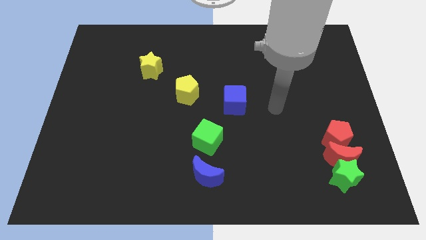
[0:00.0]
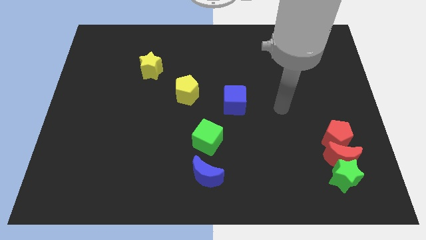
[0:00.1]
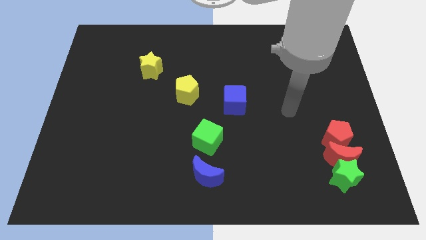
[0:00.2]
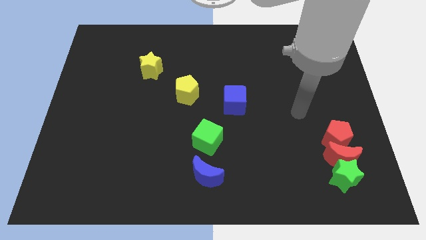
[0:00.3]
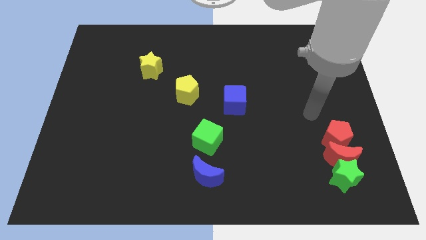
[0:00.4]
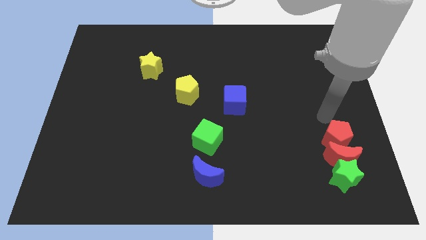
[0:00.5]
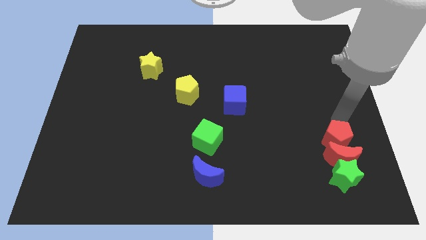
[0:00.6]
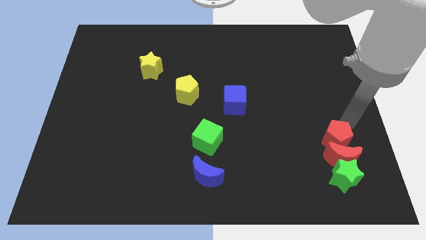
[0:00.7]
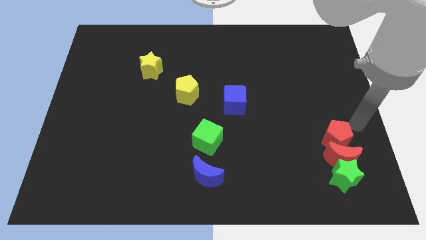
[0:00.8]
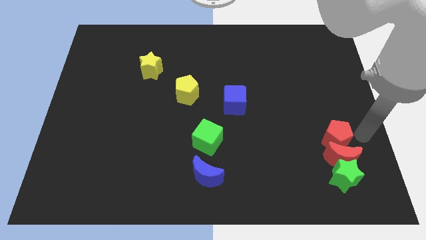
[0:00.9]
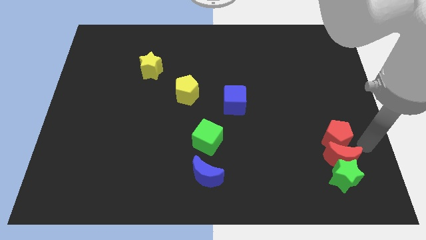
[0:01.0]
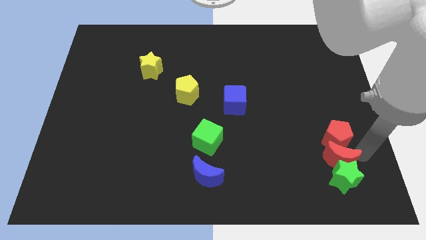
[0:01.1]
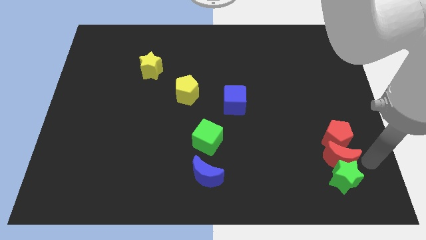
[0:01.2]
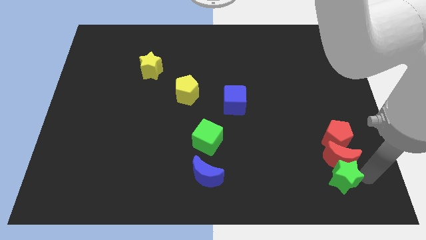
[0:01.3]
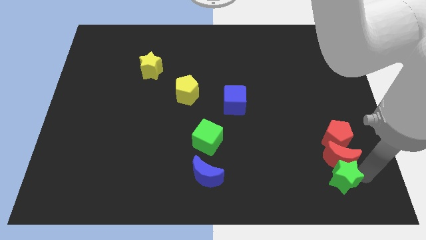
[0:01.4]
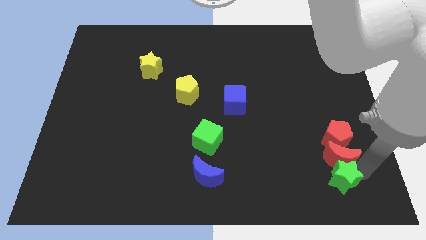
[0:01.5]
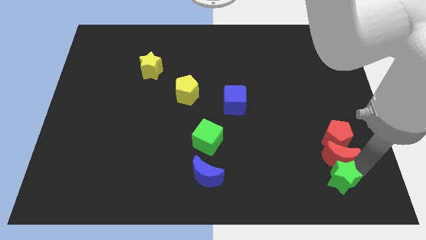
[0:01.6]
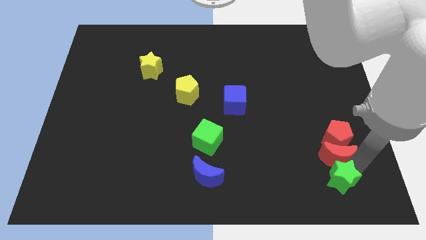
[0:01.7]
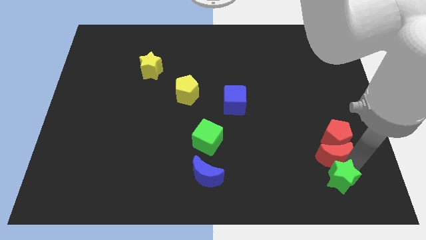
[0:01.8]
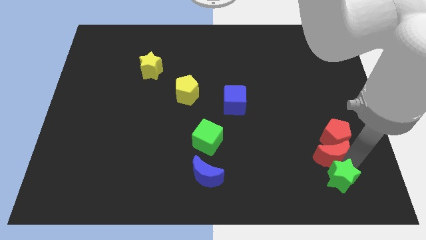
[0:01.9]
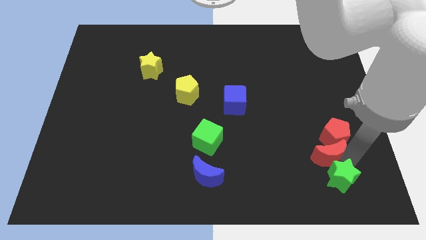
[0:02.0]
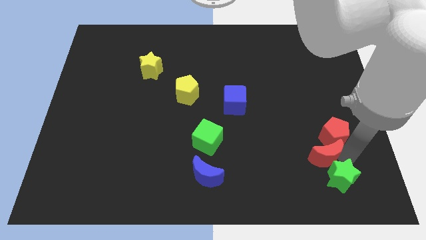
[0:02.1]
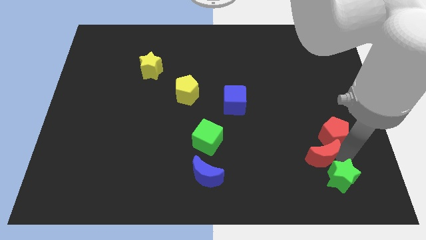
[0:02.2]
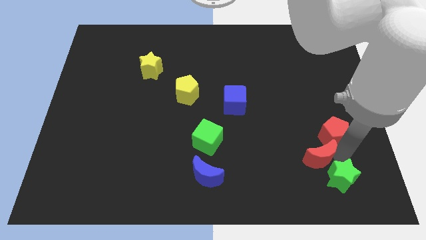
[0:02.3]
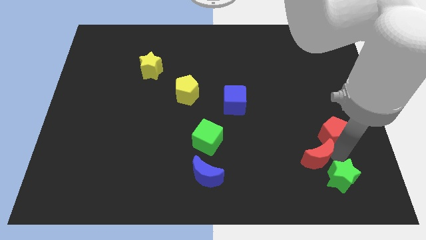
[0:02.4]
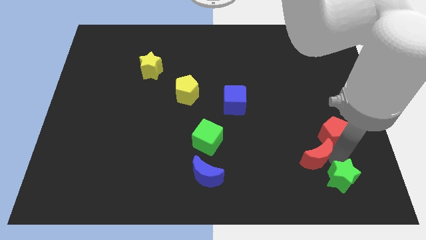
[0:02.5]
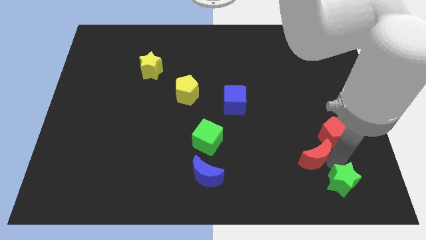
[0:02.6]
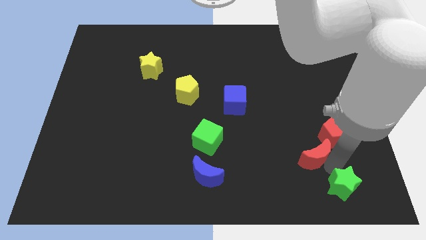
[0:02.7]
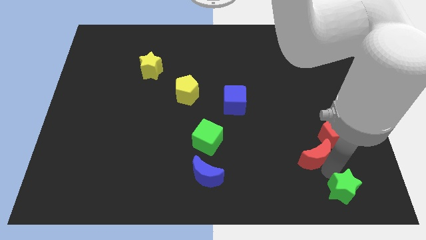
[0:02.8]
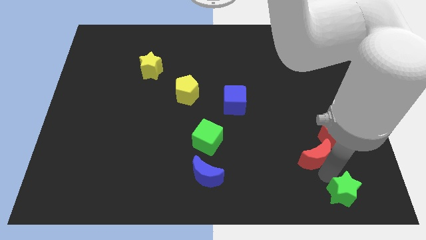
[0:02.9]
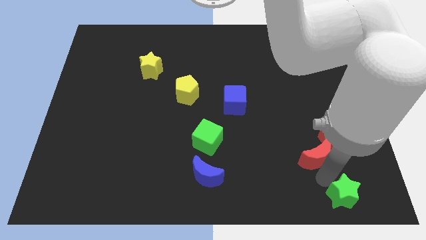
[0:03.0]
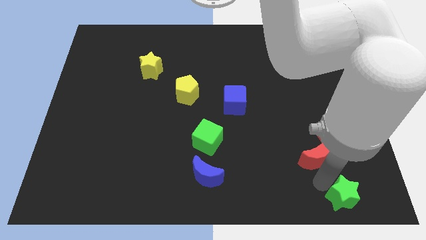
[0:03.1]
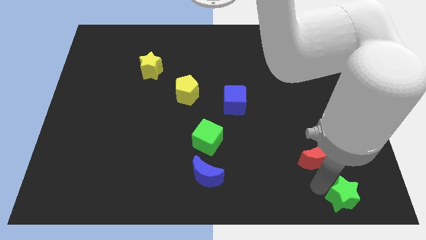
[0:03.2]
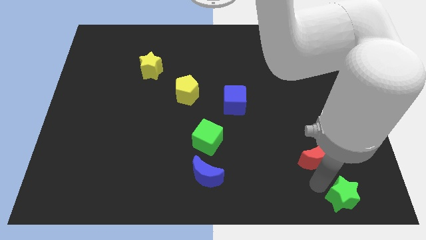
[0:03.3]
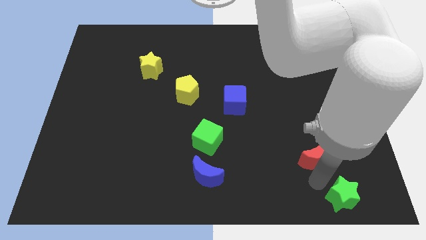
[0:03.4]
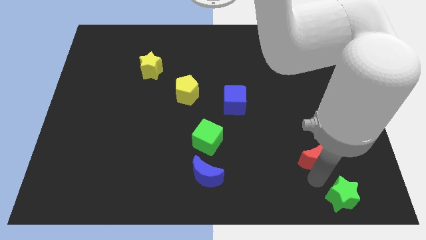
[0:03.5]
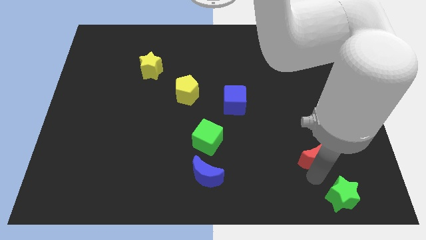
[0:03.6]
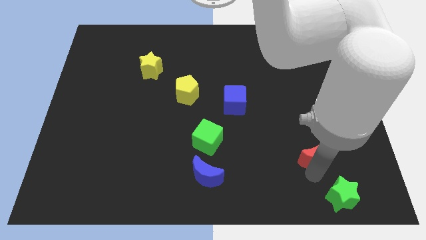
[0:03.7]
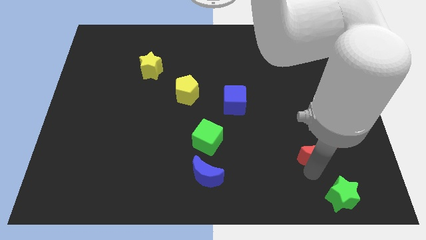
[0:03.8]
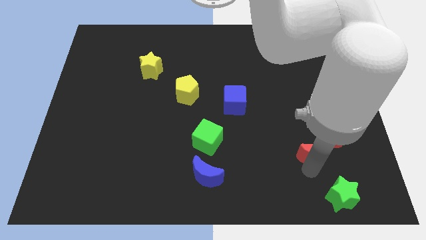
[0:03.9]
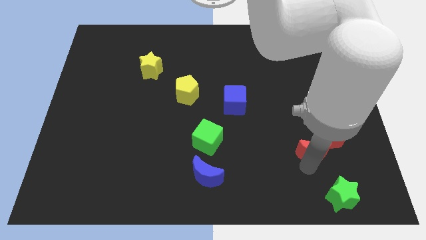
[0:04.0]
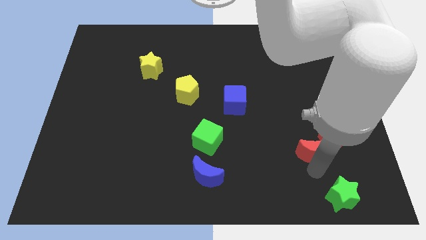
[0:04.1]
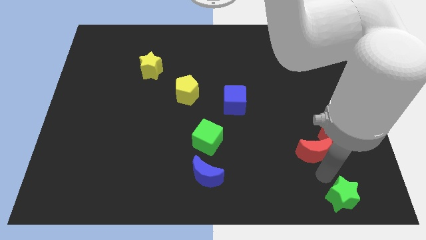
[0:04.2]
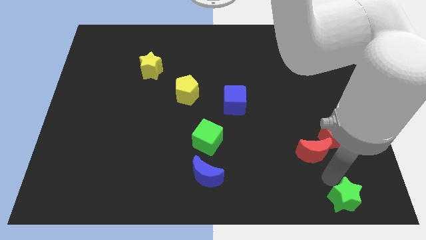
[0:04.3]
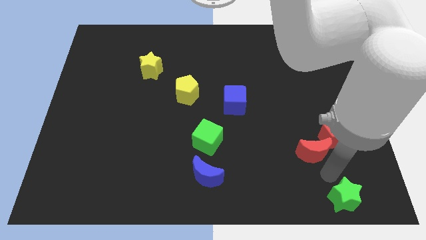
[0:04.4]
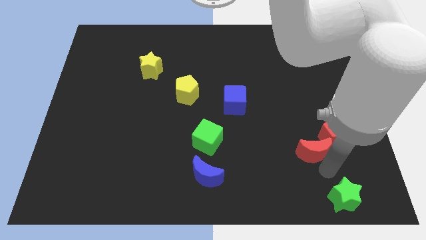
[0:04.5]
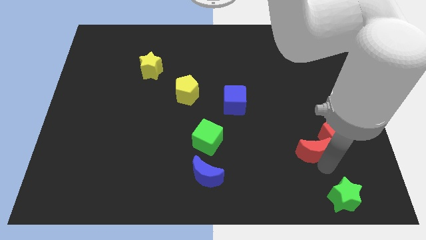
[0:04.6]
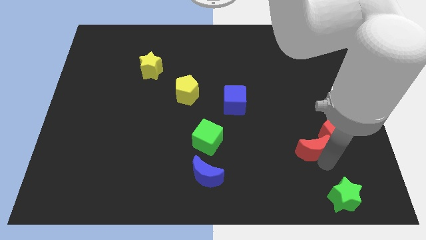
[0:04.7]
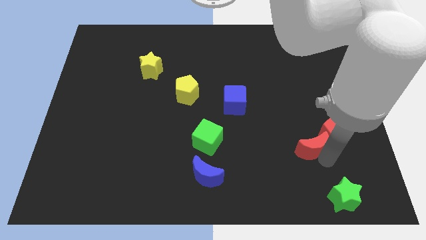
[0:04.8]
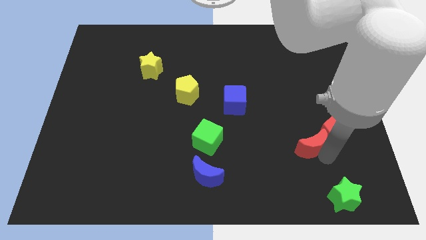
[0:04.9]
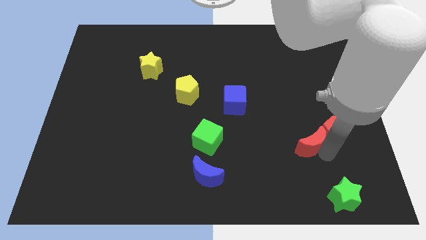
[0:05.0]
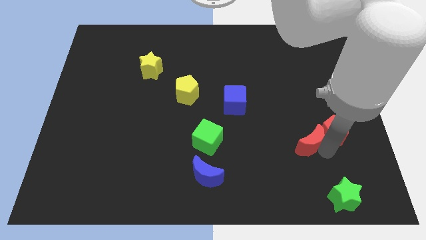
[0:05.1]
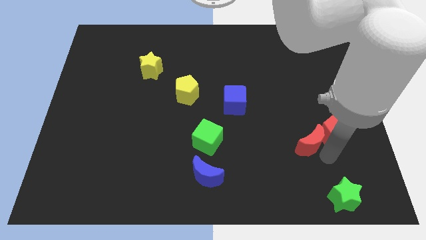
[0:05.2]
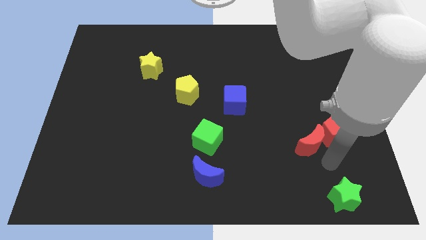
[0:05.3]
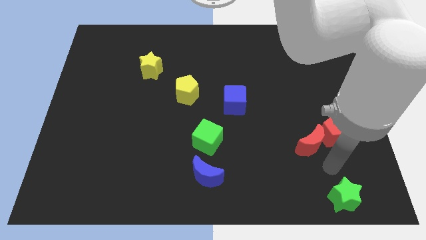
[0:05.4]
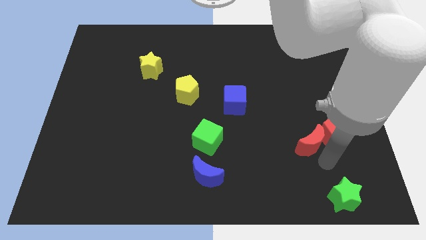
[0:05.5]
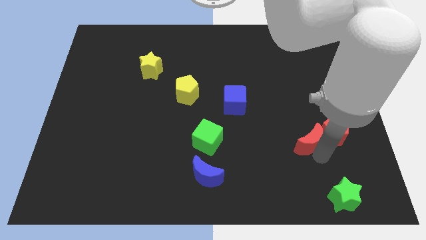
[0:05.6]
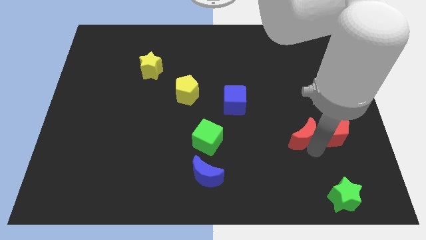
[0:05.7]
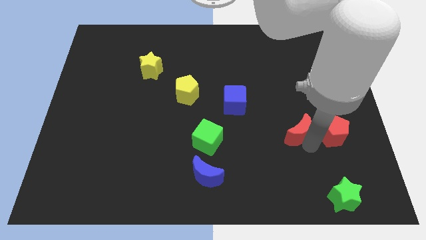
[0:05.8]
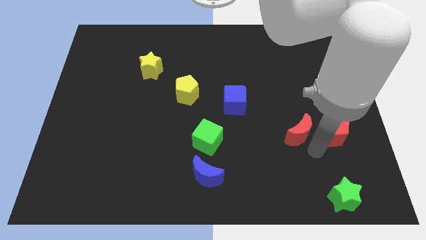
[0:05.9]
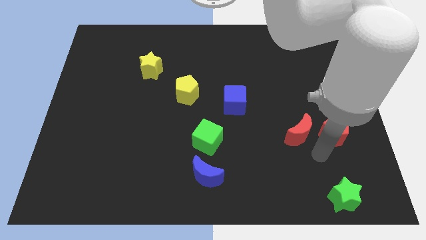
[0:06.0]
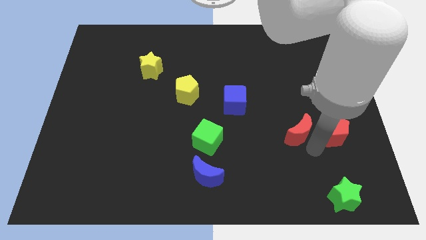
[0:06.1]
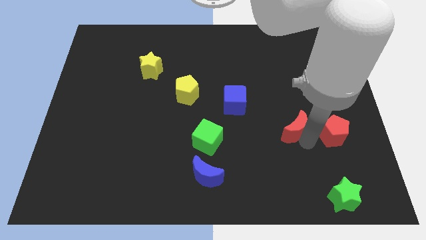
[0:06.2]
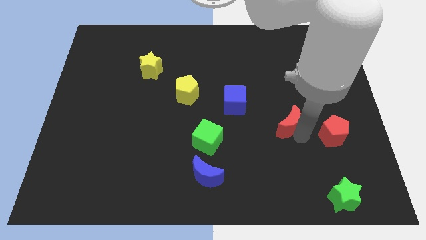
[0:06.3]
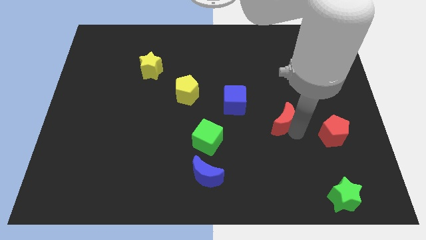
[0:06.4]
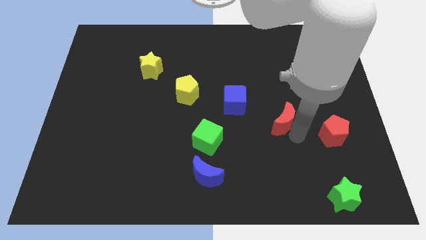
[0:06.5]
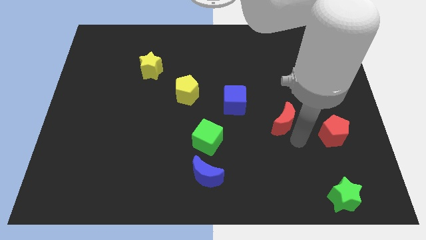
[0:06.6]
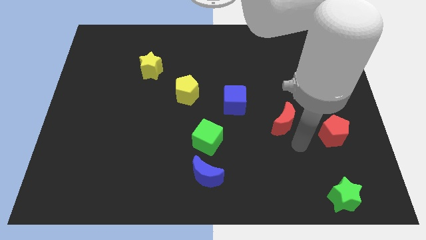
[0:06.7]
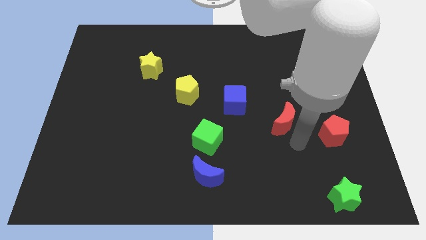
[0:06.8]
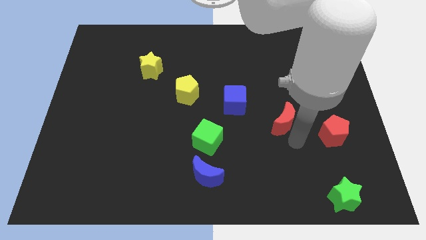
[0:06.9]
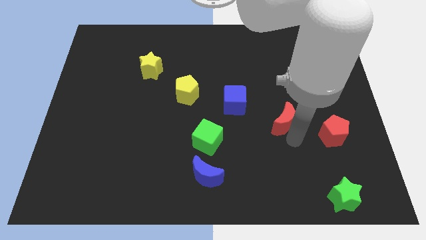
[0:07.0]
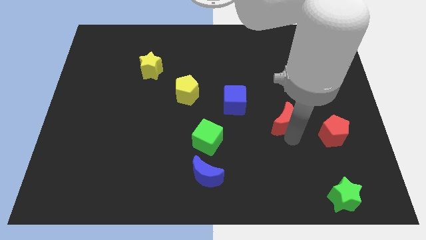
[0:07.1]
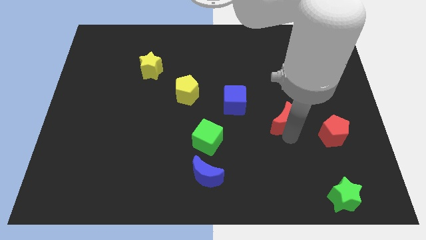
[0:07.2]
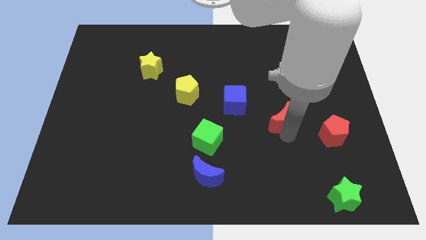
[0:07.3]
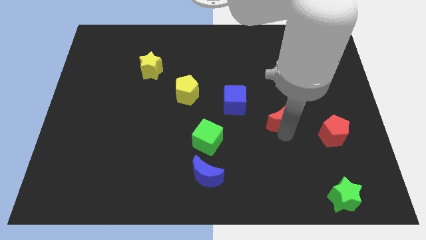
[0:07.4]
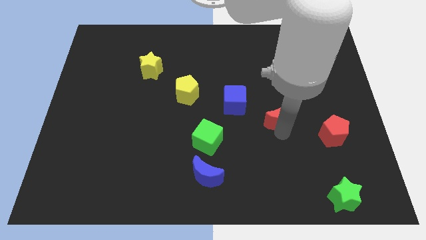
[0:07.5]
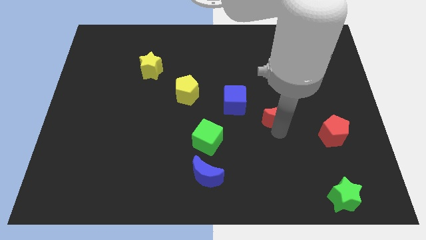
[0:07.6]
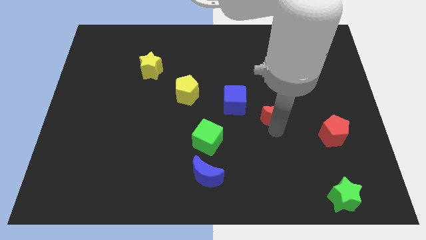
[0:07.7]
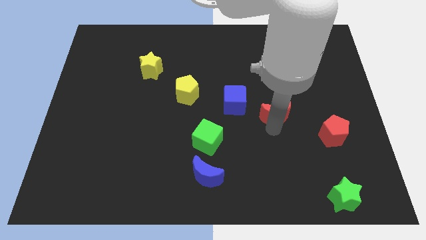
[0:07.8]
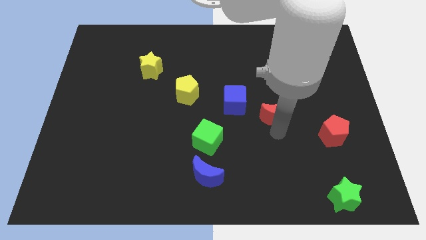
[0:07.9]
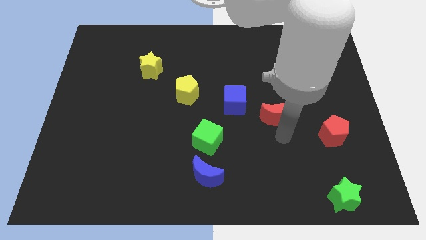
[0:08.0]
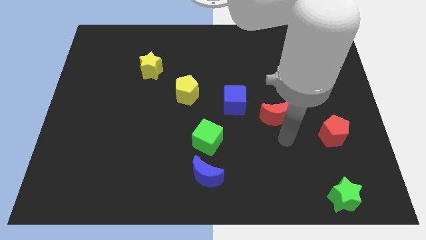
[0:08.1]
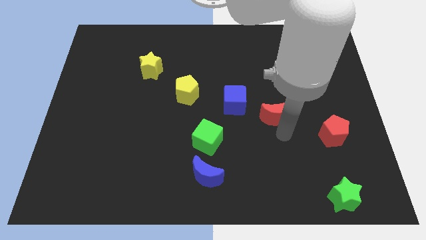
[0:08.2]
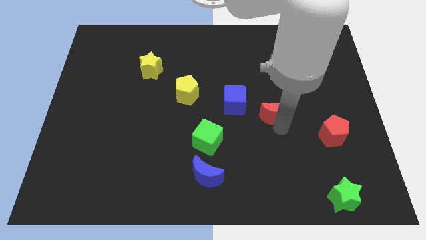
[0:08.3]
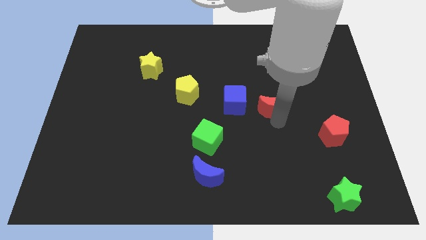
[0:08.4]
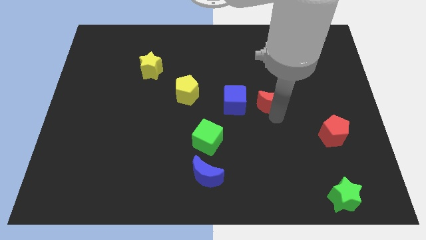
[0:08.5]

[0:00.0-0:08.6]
push the red moon diagonally upwards and to the left
